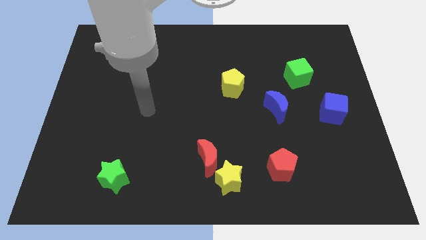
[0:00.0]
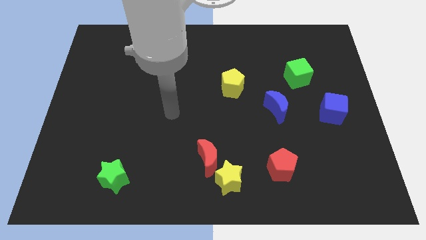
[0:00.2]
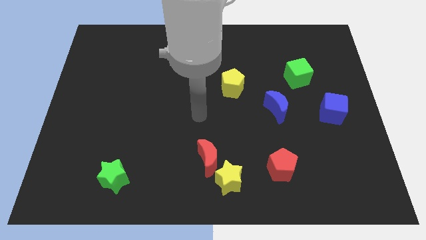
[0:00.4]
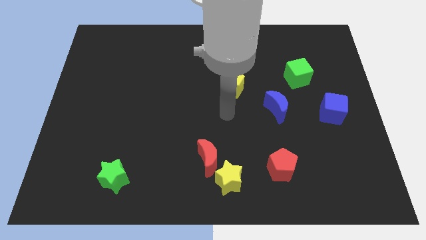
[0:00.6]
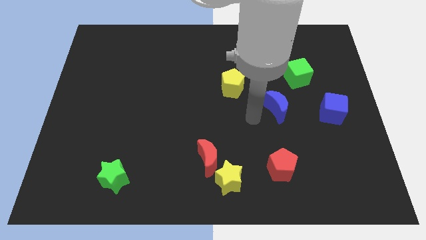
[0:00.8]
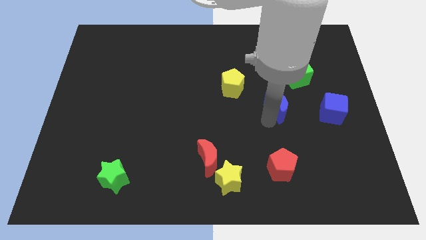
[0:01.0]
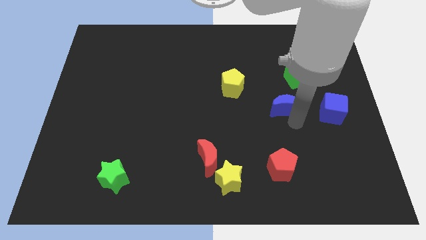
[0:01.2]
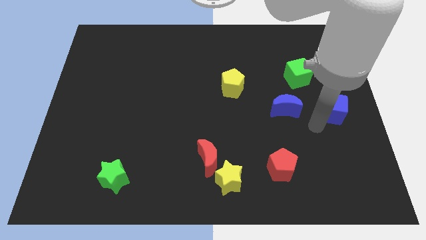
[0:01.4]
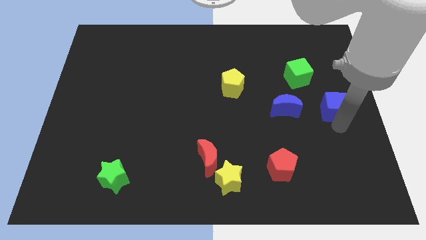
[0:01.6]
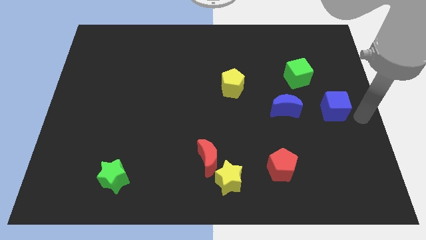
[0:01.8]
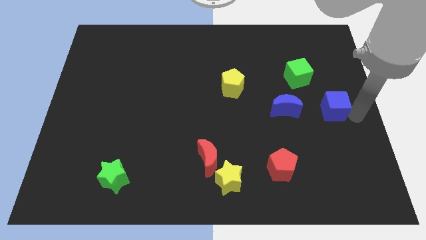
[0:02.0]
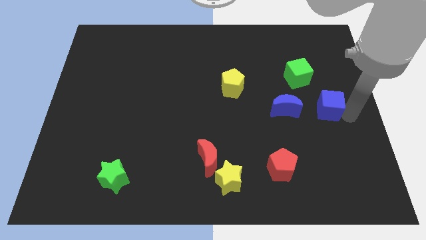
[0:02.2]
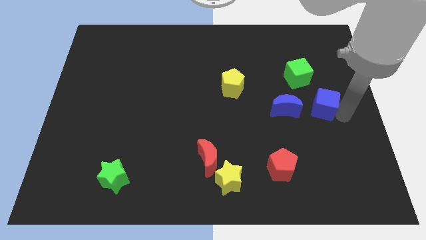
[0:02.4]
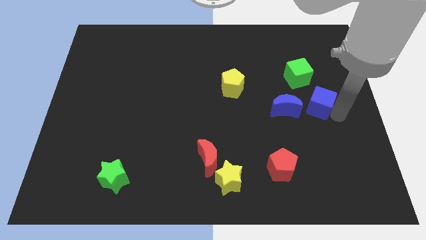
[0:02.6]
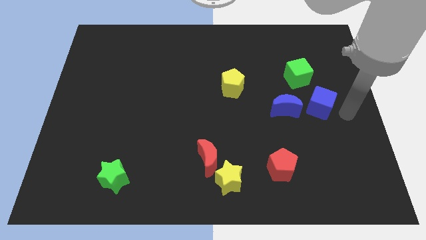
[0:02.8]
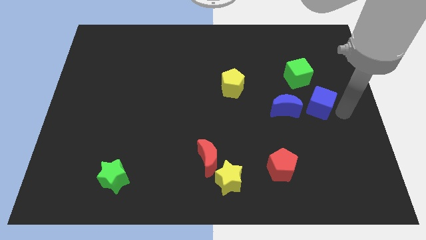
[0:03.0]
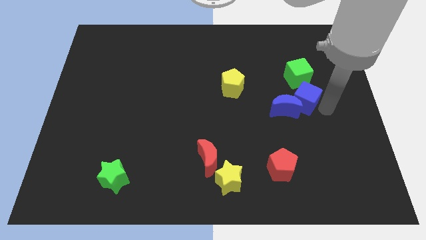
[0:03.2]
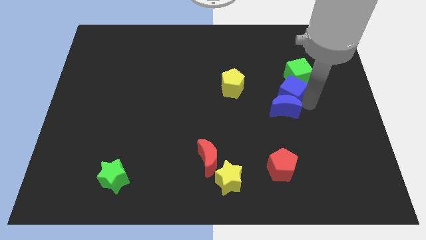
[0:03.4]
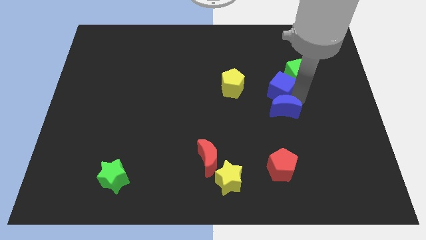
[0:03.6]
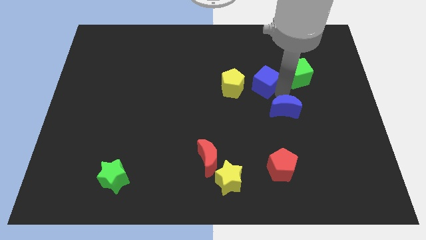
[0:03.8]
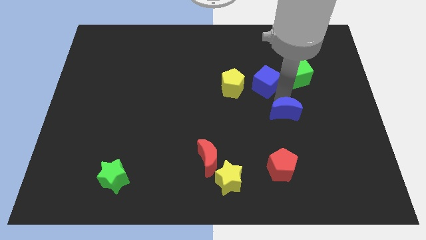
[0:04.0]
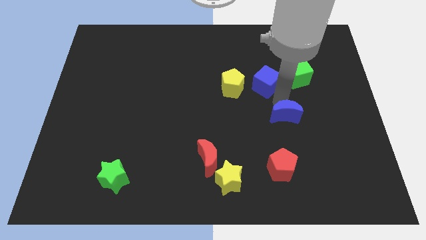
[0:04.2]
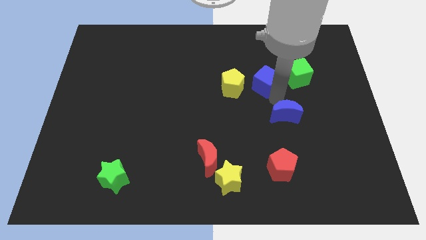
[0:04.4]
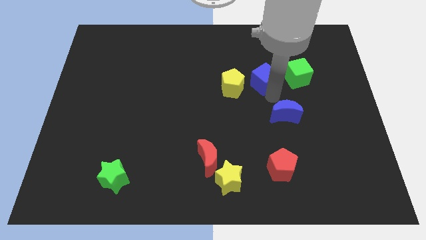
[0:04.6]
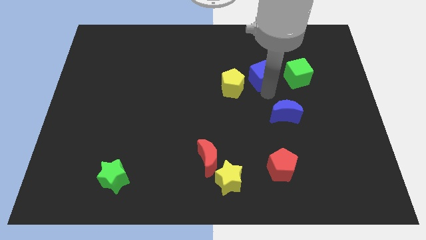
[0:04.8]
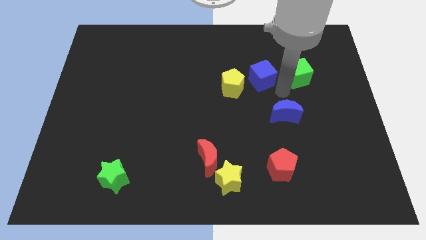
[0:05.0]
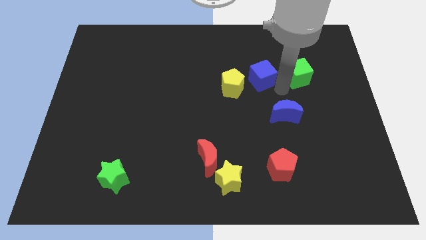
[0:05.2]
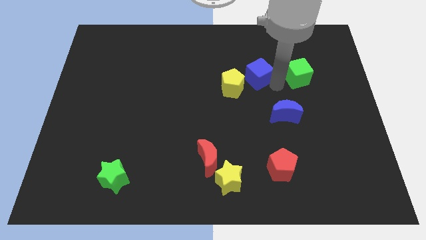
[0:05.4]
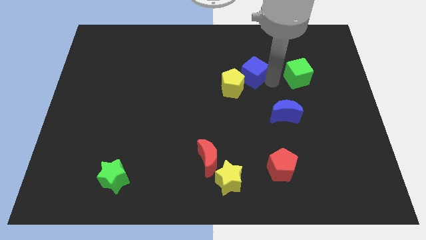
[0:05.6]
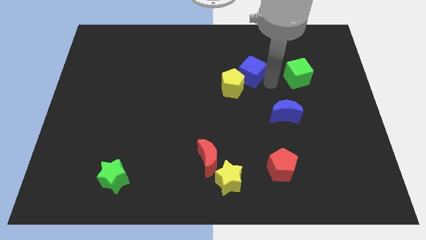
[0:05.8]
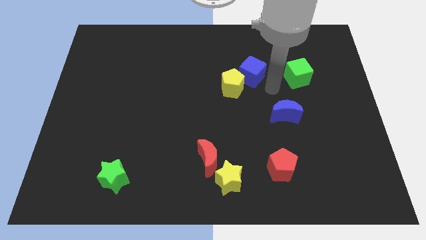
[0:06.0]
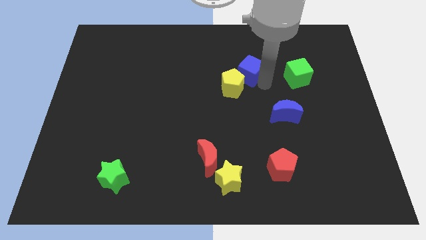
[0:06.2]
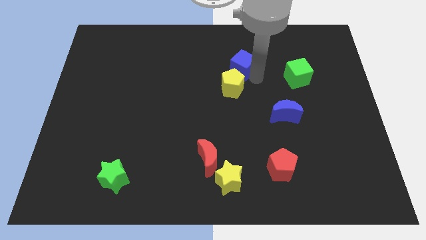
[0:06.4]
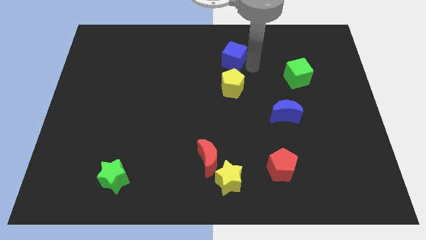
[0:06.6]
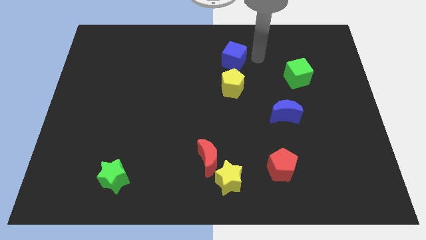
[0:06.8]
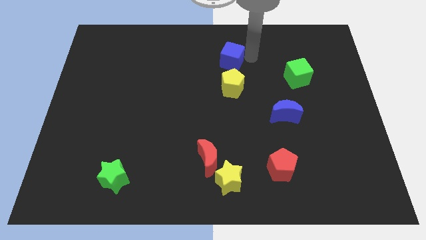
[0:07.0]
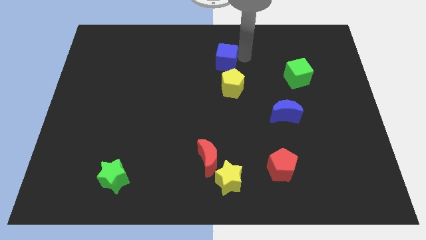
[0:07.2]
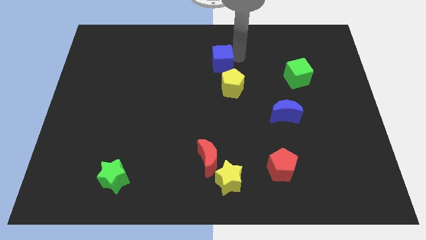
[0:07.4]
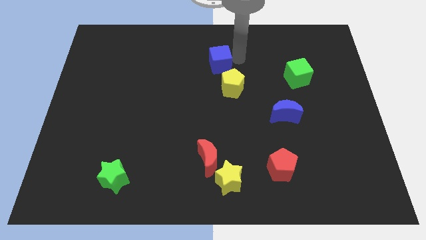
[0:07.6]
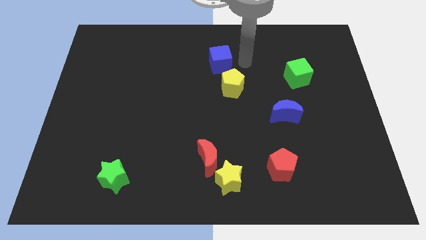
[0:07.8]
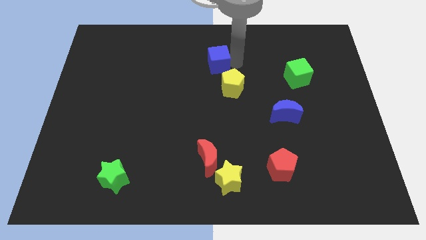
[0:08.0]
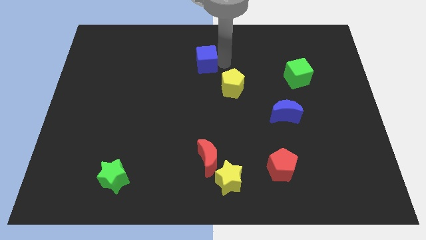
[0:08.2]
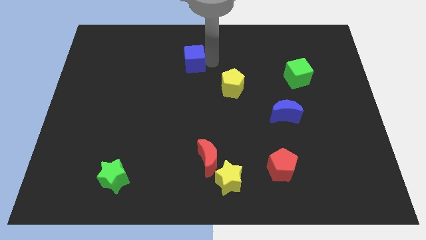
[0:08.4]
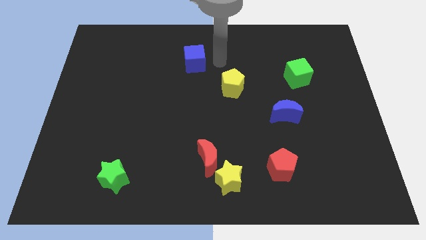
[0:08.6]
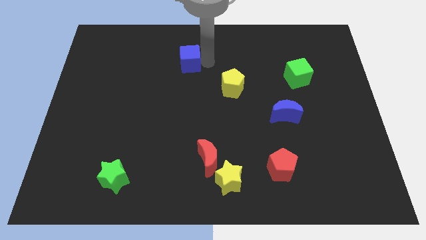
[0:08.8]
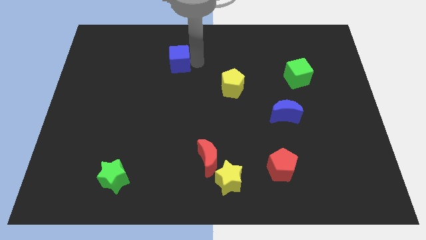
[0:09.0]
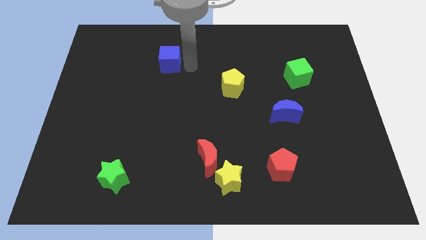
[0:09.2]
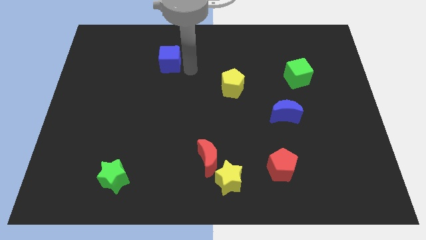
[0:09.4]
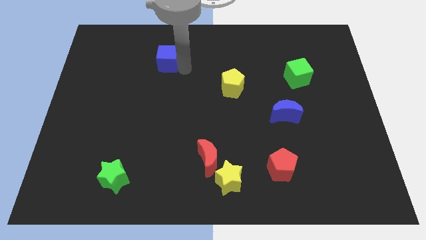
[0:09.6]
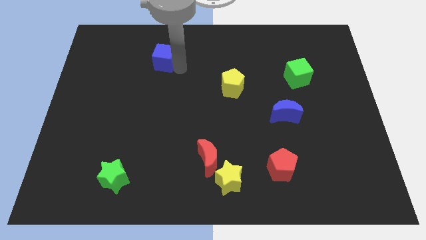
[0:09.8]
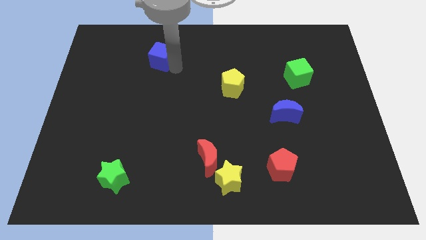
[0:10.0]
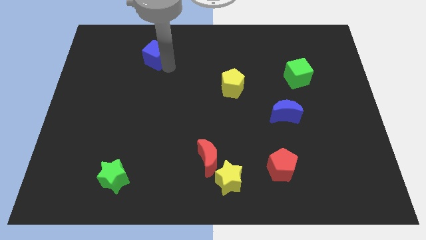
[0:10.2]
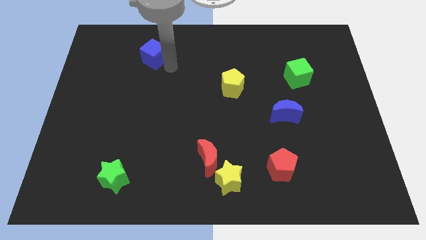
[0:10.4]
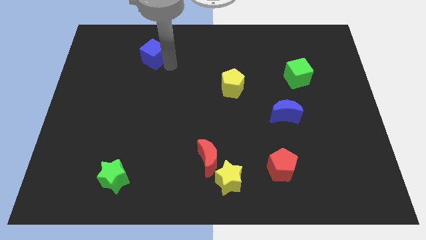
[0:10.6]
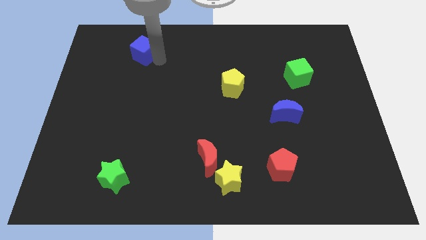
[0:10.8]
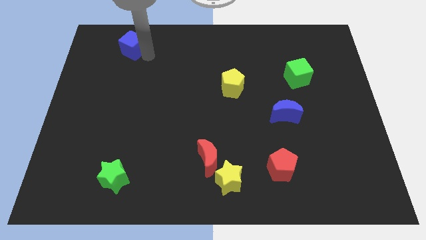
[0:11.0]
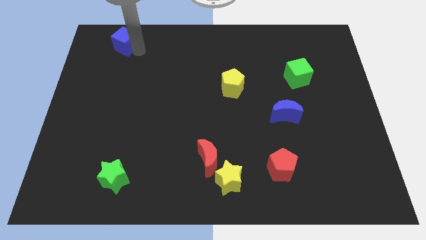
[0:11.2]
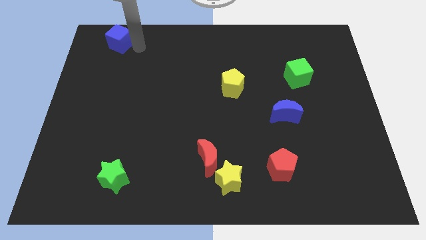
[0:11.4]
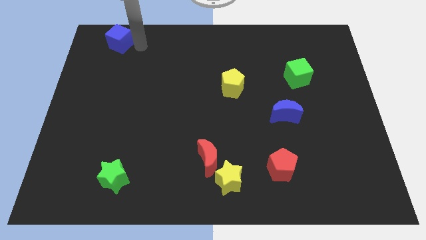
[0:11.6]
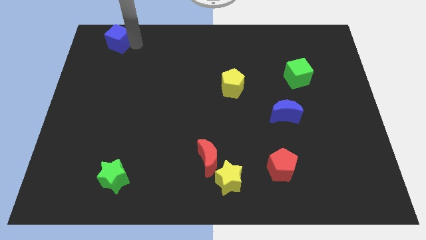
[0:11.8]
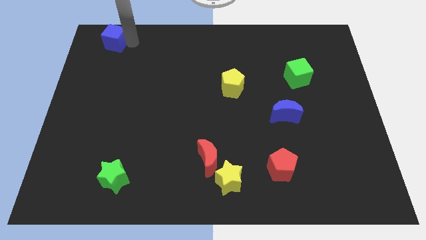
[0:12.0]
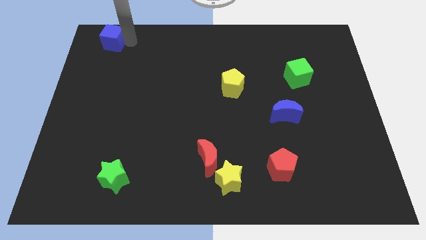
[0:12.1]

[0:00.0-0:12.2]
put the blue cube to the top left
